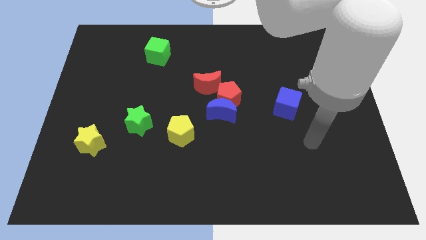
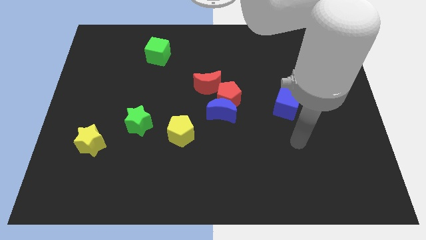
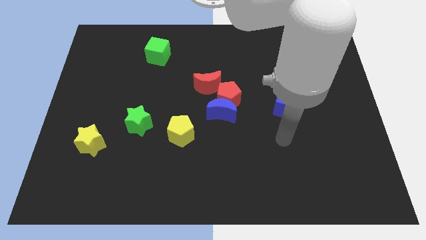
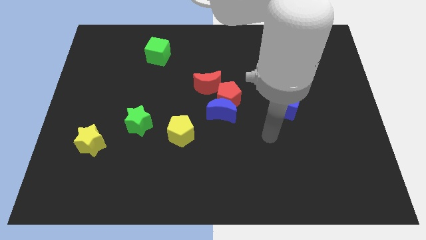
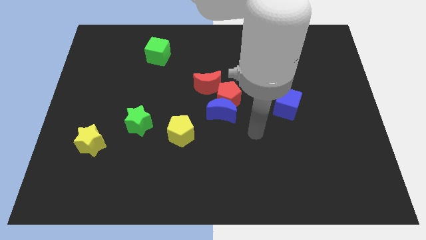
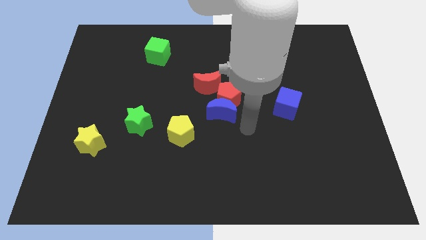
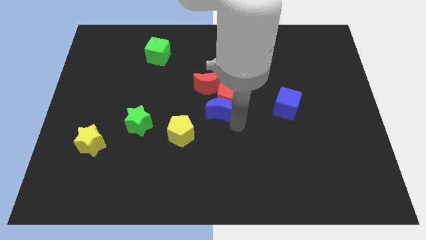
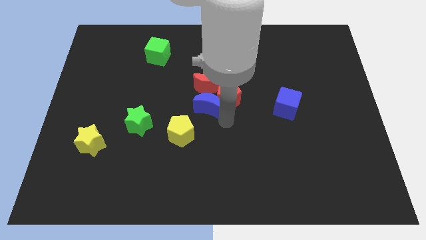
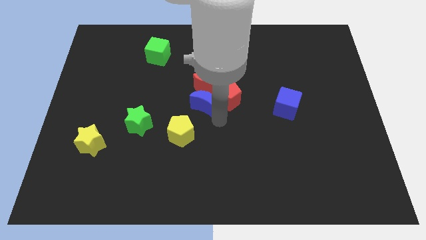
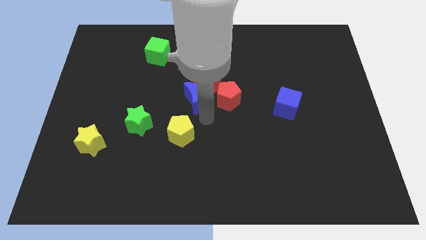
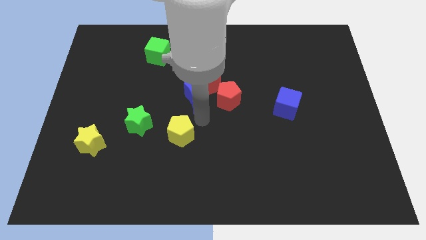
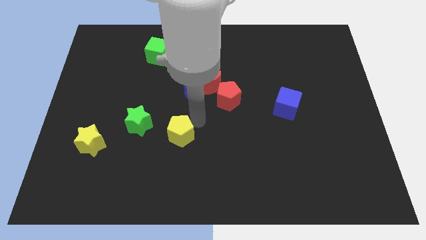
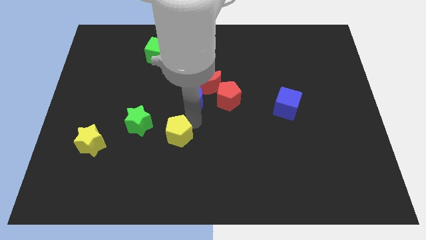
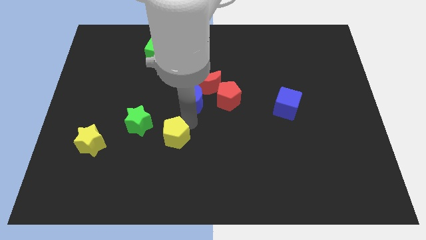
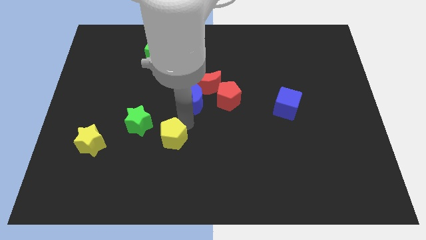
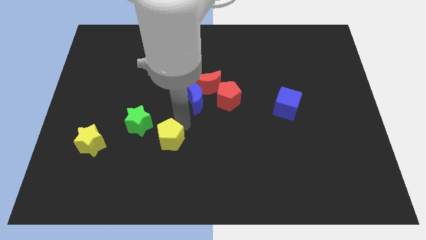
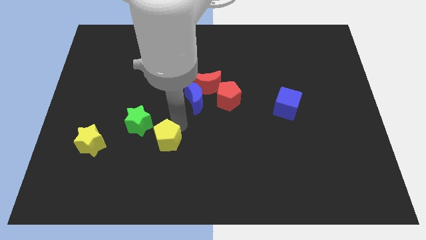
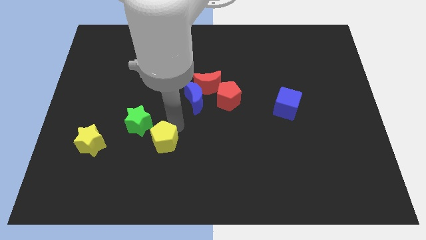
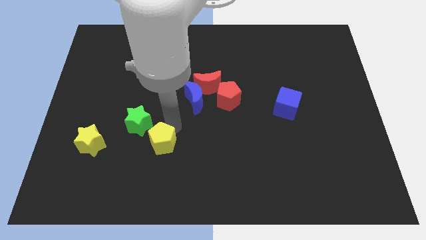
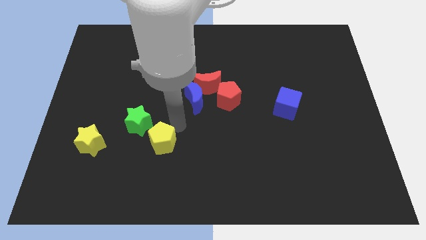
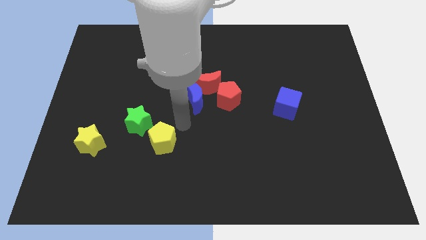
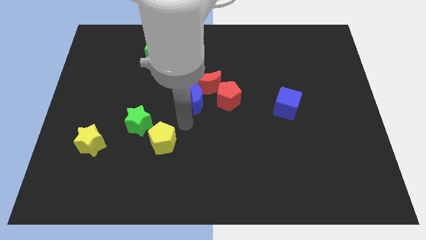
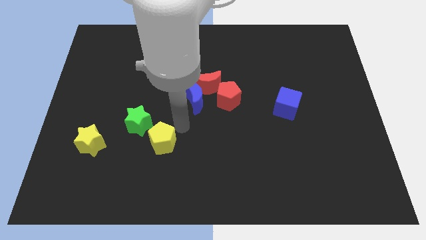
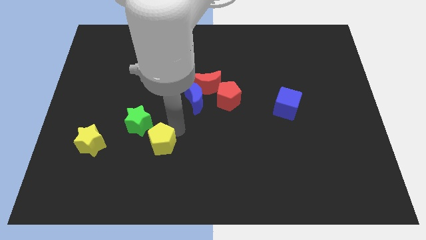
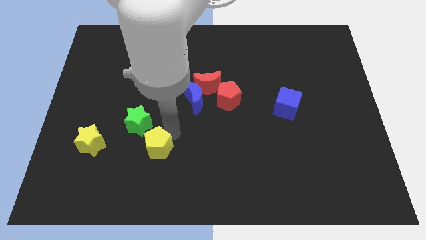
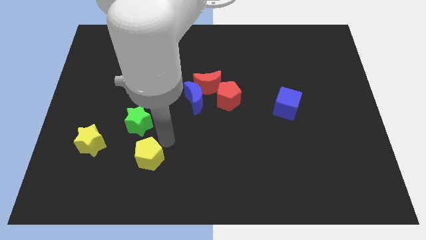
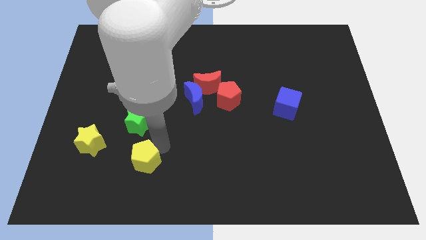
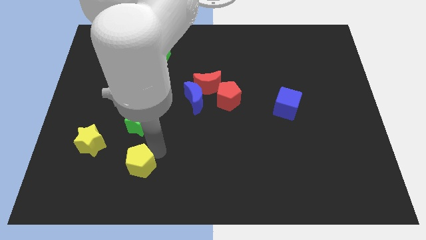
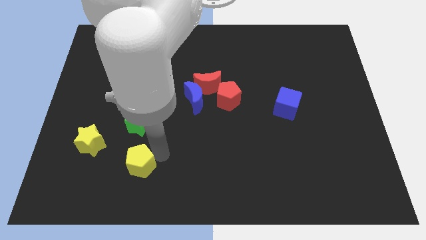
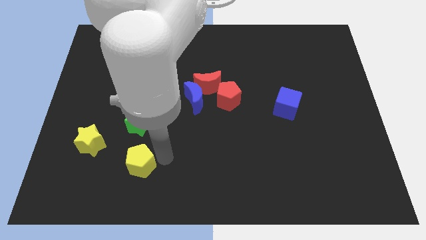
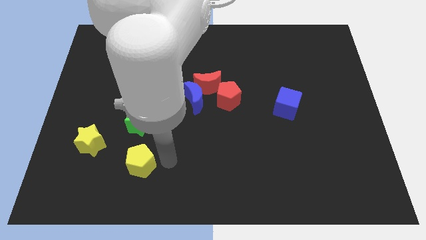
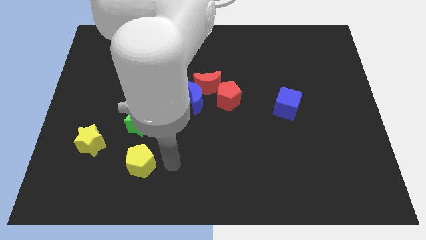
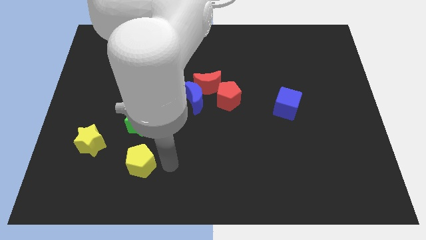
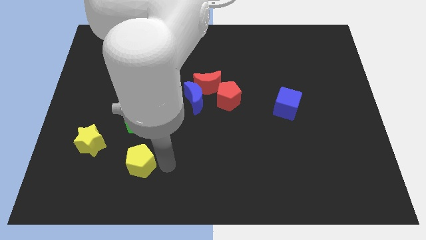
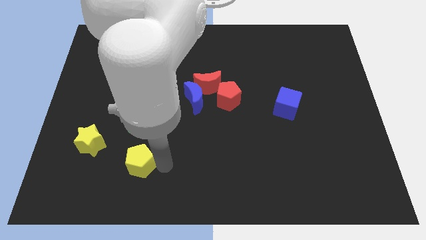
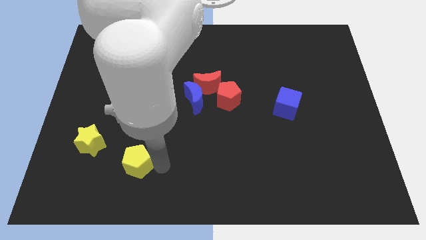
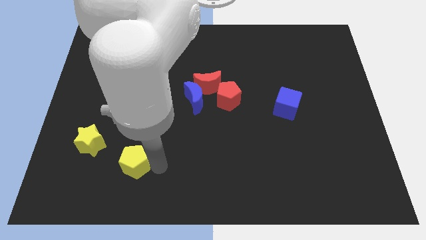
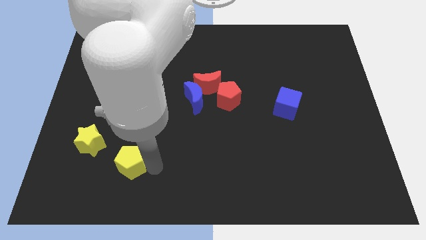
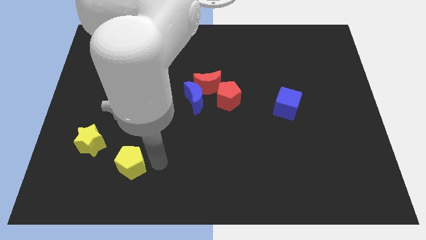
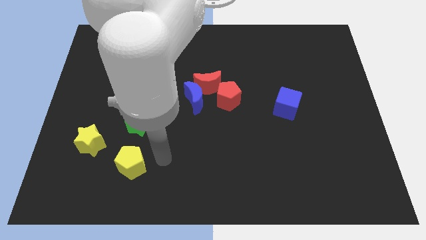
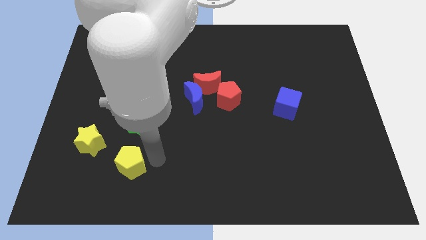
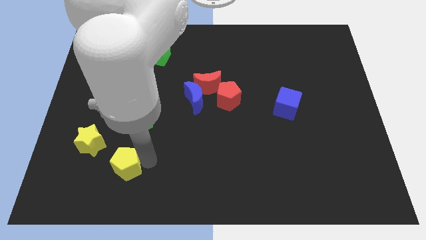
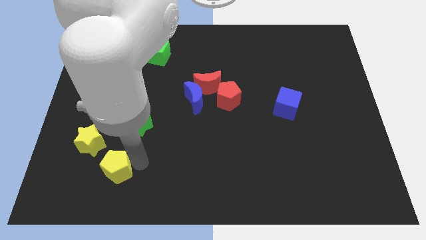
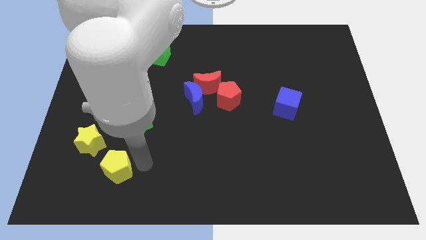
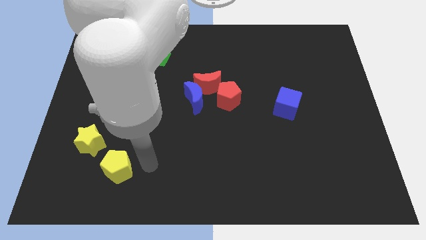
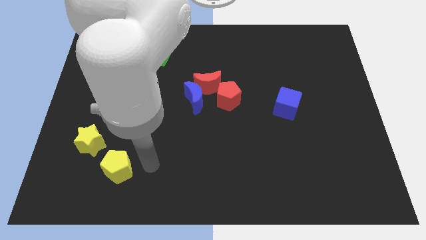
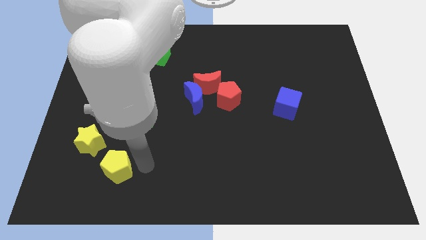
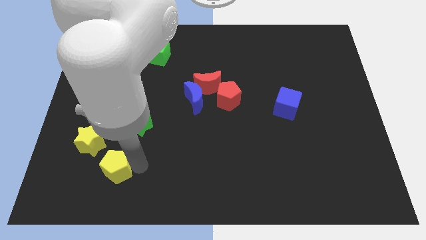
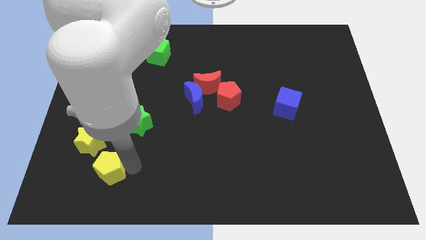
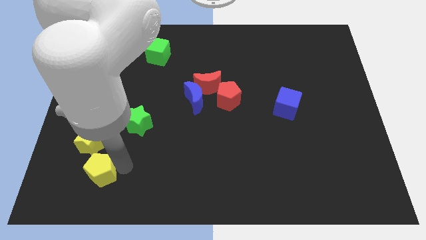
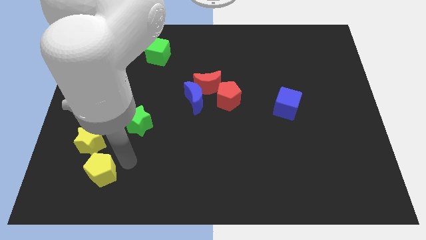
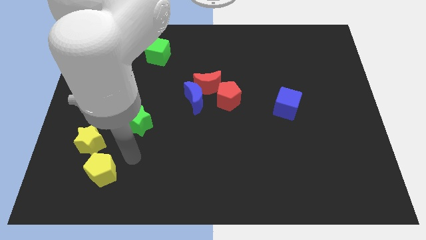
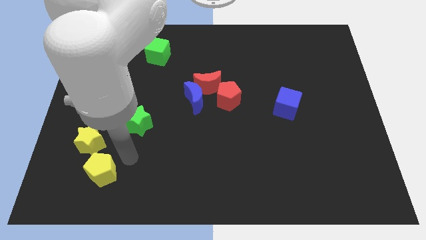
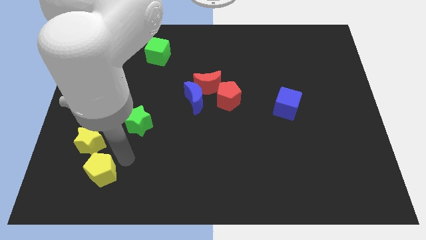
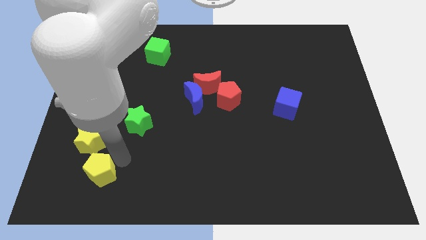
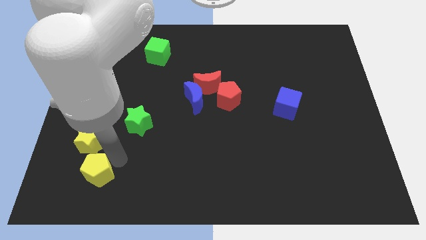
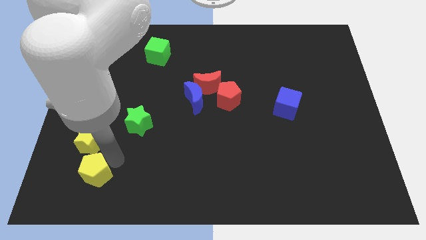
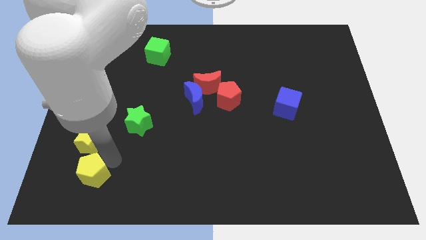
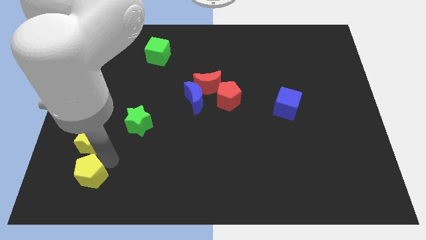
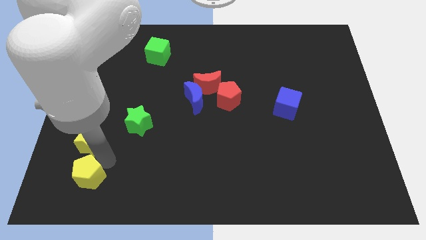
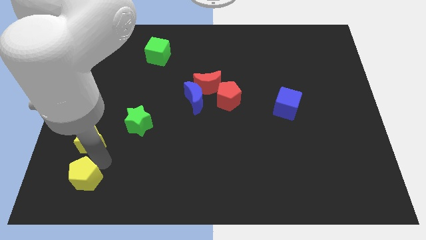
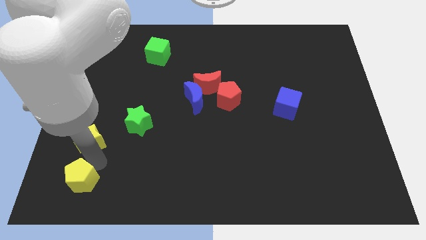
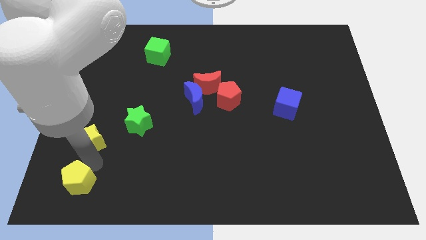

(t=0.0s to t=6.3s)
put the yellow pentagon to the bottom left corner

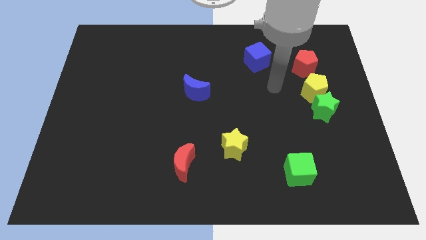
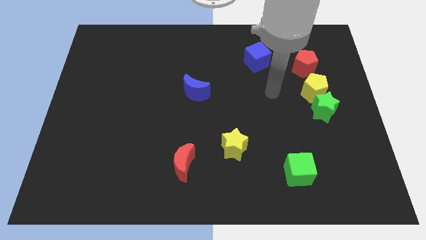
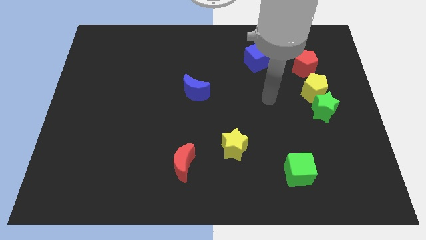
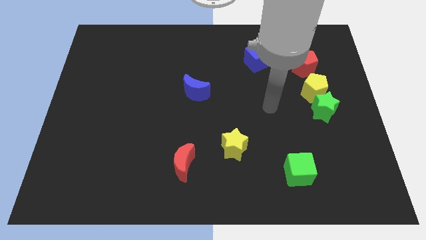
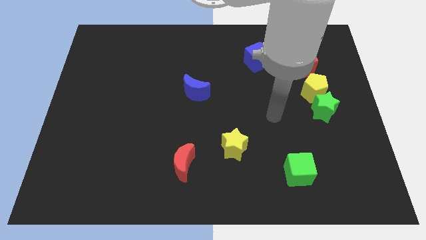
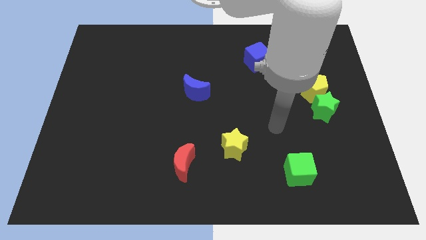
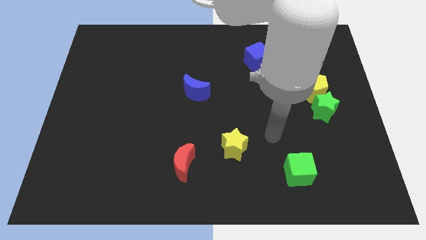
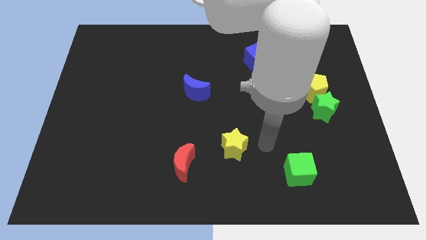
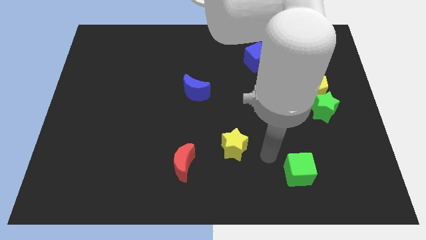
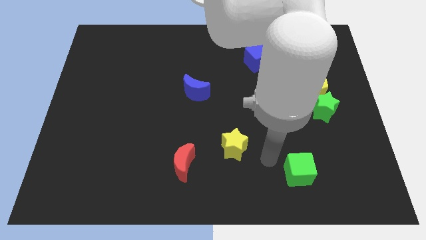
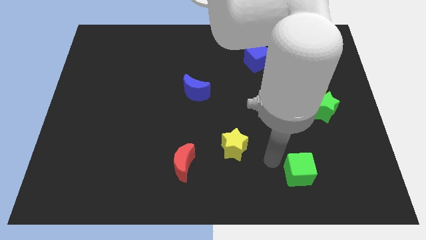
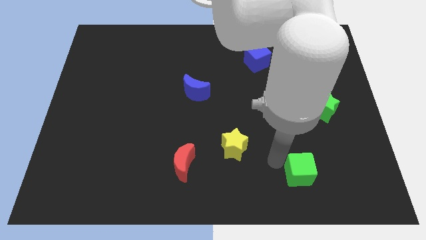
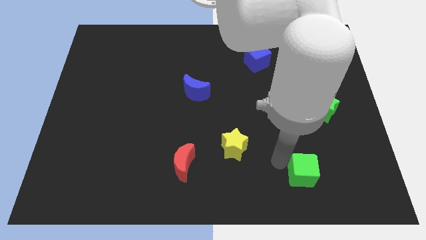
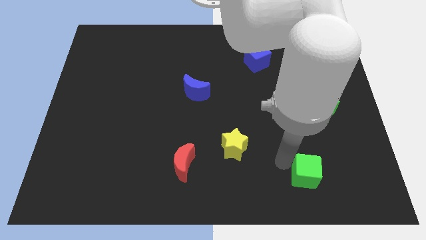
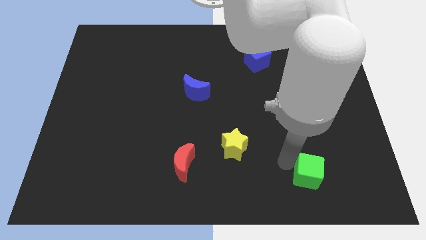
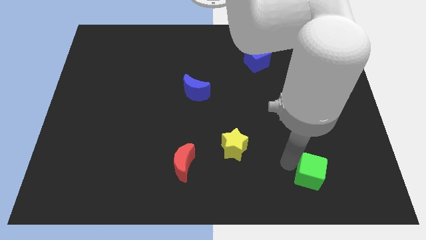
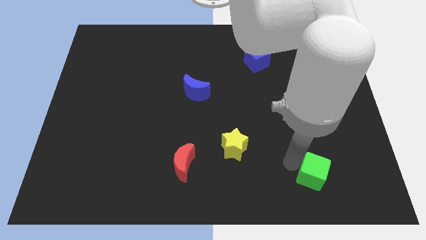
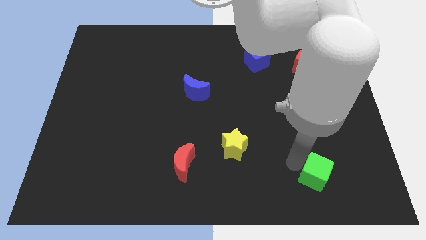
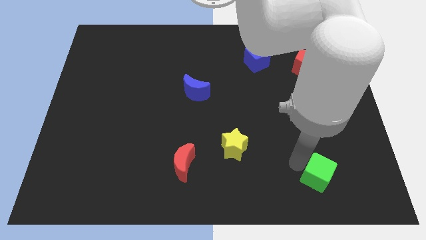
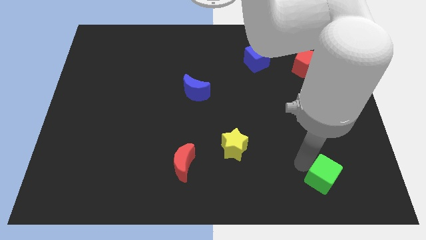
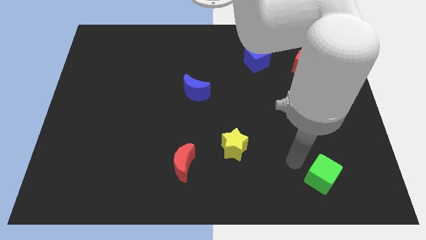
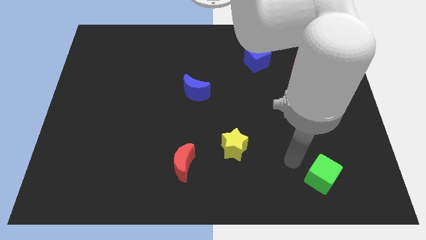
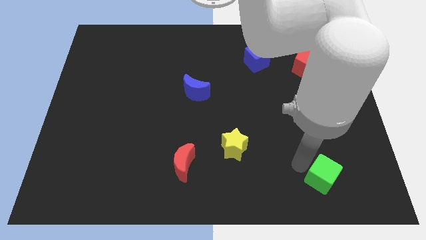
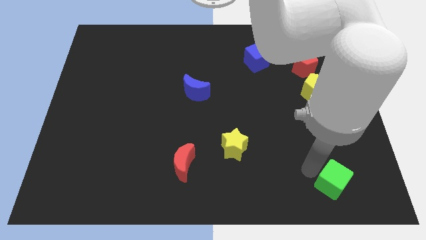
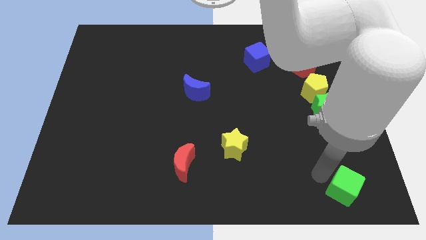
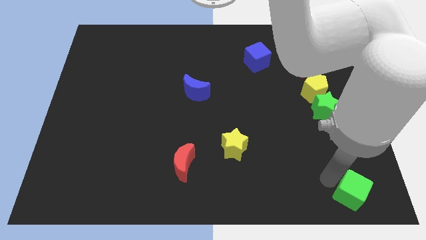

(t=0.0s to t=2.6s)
push the green cube to the bottom right of the board
